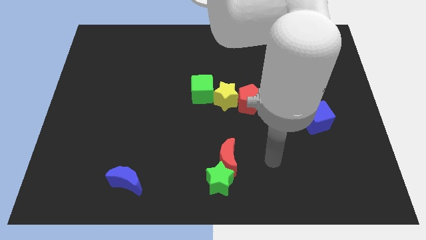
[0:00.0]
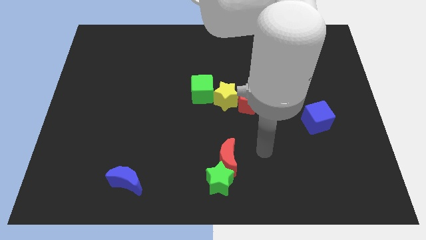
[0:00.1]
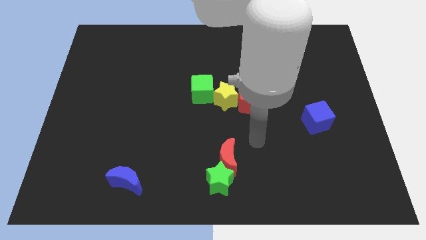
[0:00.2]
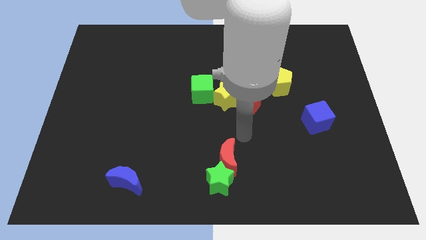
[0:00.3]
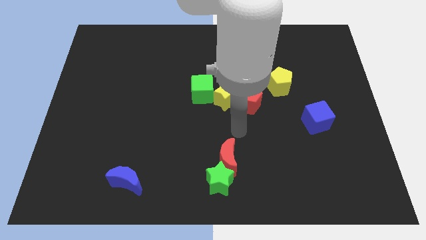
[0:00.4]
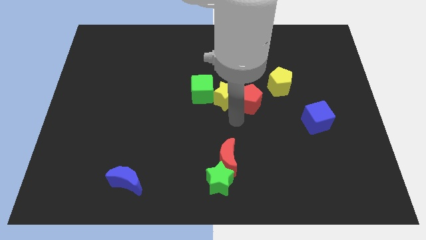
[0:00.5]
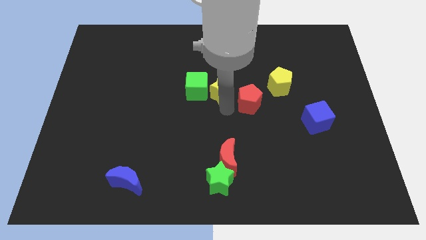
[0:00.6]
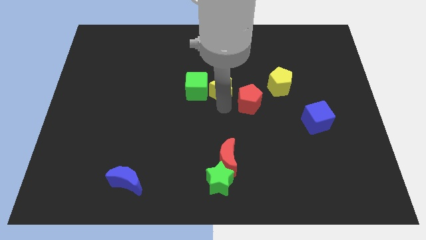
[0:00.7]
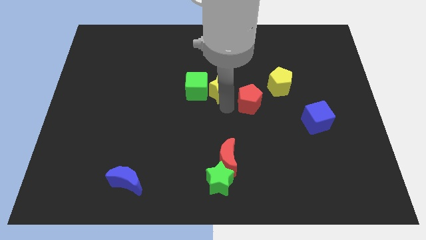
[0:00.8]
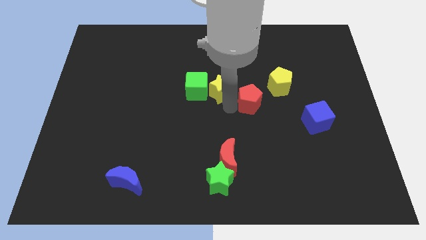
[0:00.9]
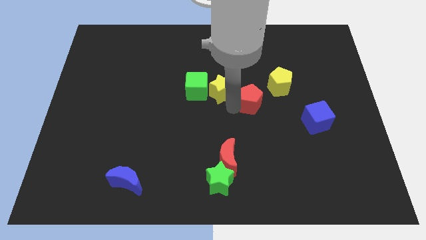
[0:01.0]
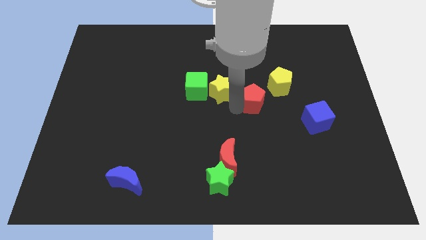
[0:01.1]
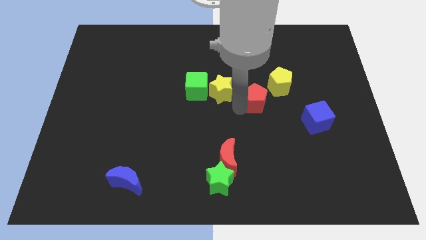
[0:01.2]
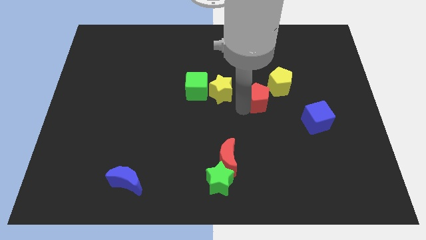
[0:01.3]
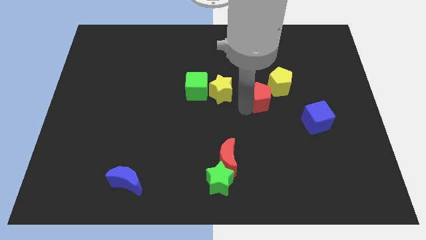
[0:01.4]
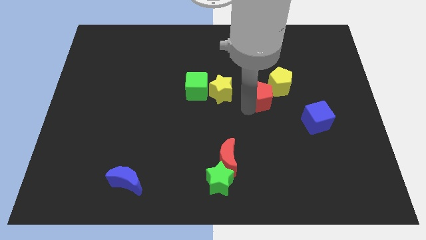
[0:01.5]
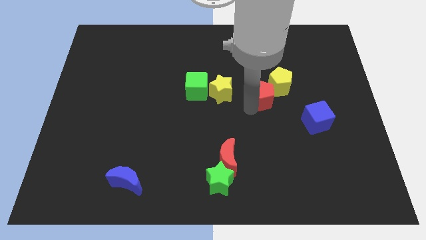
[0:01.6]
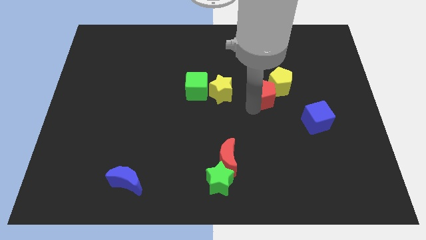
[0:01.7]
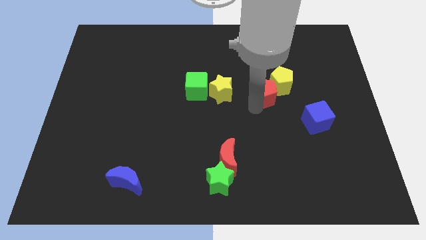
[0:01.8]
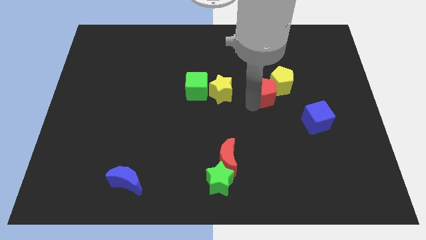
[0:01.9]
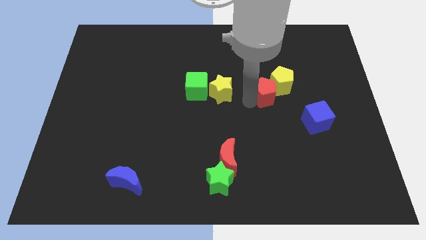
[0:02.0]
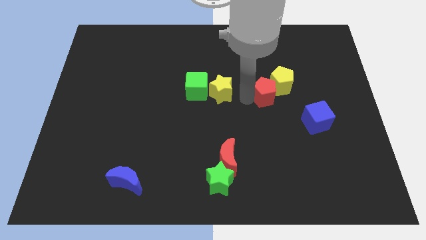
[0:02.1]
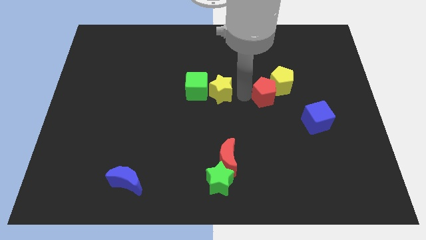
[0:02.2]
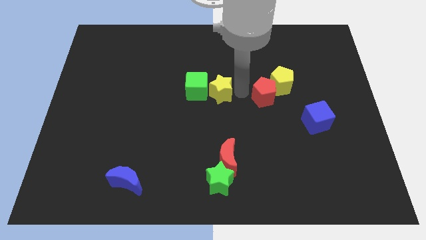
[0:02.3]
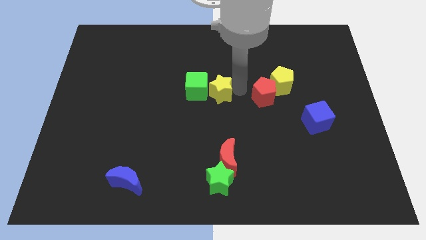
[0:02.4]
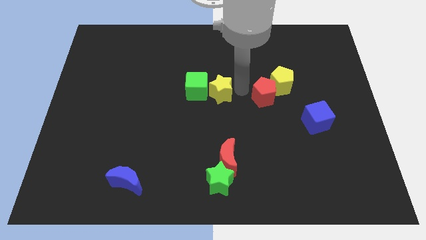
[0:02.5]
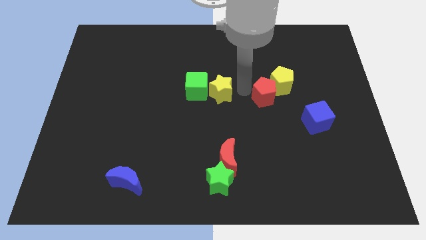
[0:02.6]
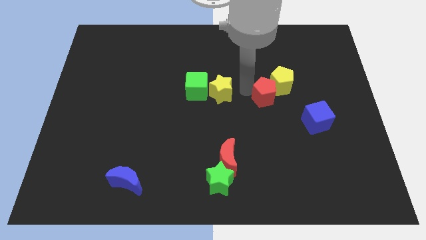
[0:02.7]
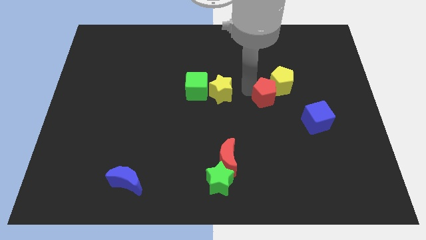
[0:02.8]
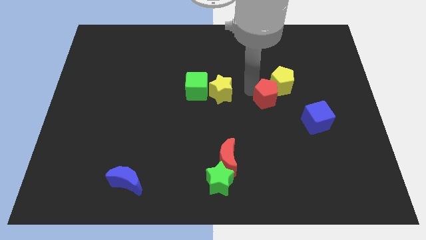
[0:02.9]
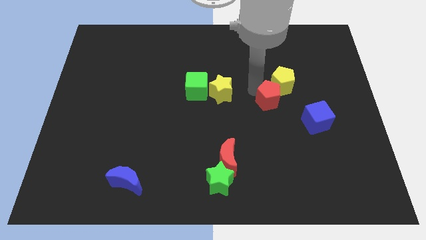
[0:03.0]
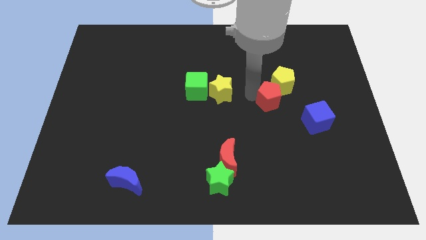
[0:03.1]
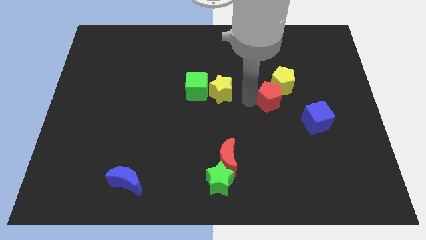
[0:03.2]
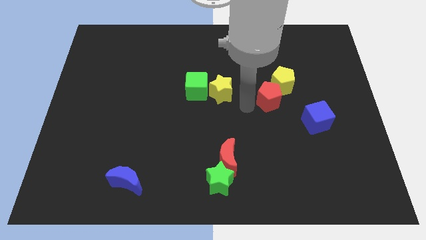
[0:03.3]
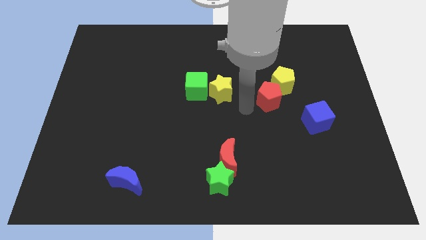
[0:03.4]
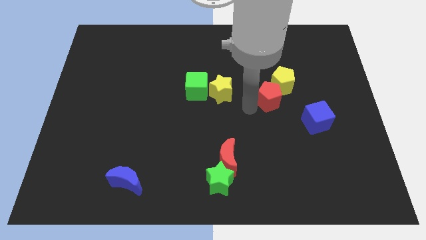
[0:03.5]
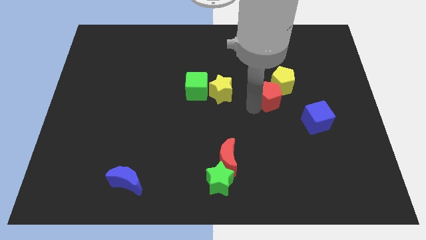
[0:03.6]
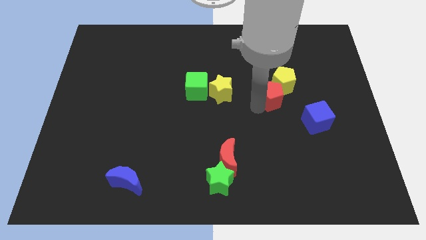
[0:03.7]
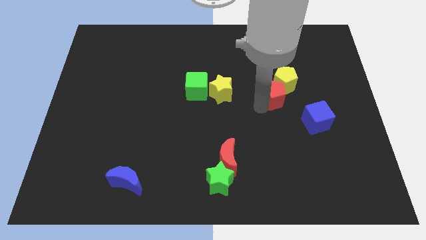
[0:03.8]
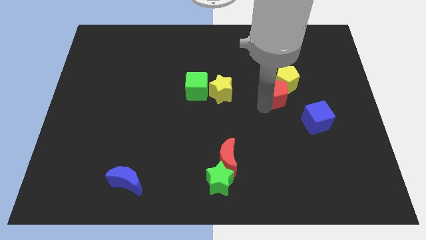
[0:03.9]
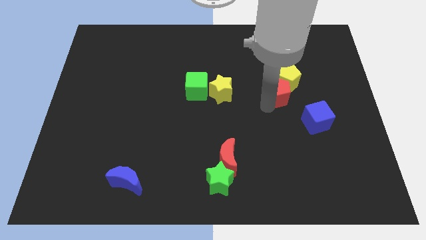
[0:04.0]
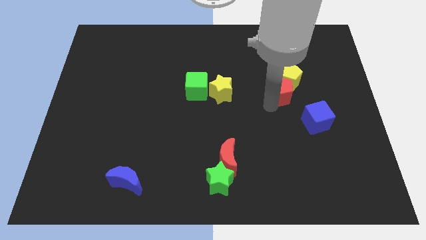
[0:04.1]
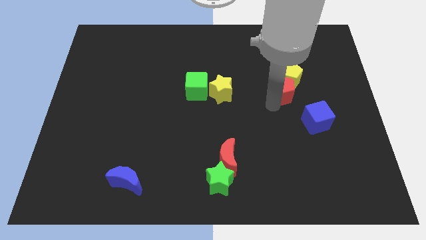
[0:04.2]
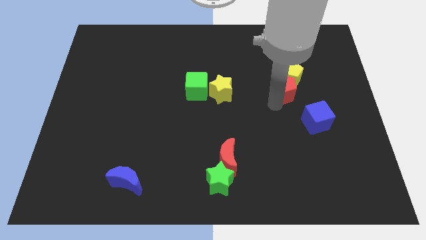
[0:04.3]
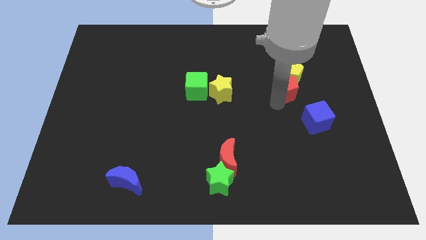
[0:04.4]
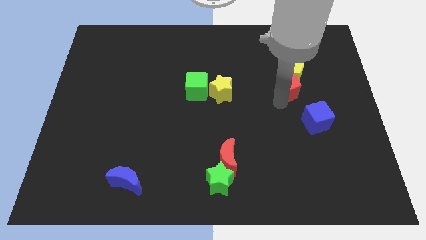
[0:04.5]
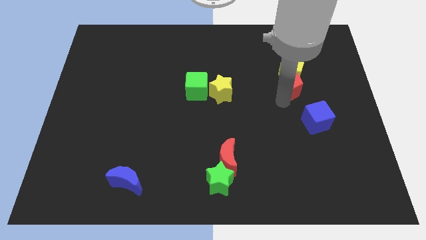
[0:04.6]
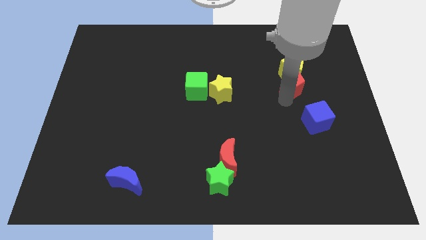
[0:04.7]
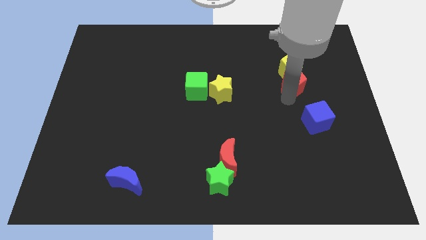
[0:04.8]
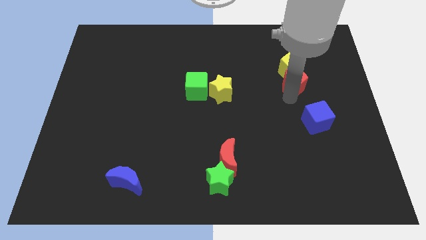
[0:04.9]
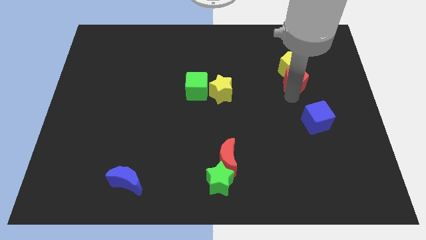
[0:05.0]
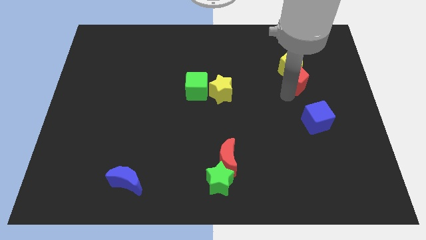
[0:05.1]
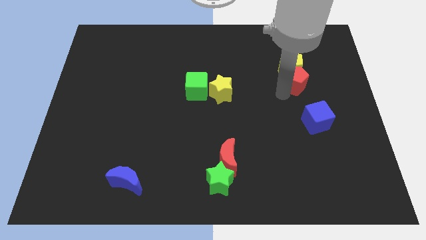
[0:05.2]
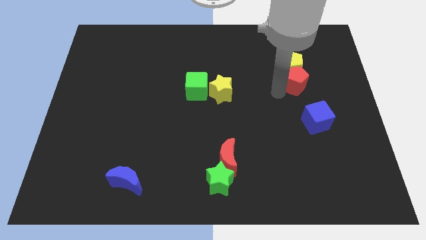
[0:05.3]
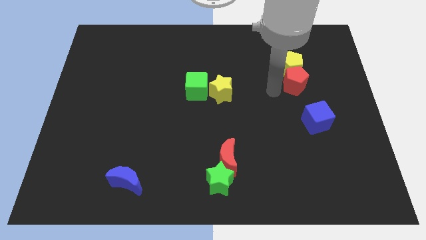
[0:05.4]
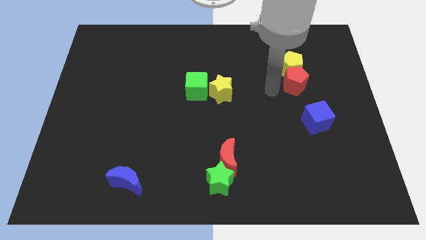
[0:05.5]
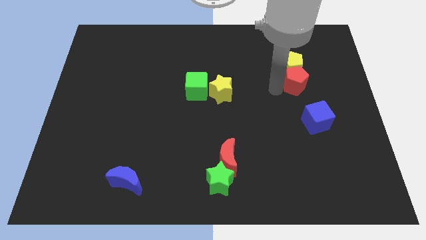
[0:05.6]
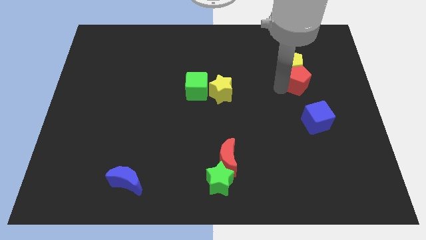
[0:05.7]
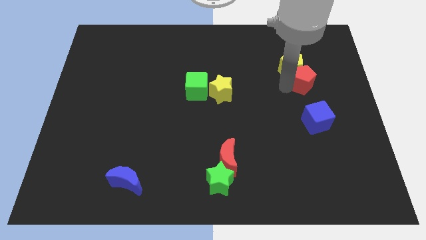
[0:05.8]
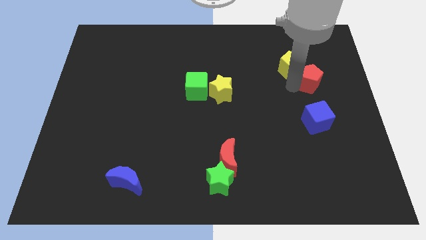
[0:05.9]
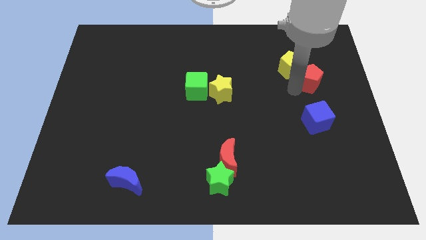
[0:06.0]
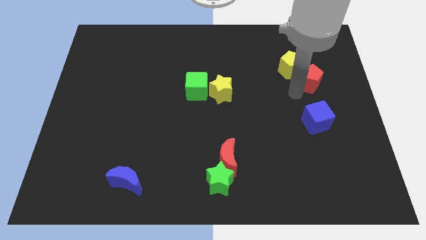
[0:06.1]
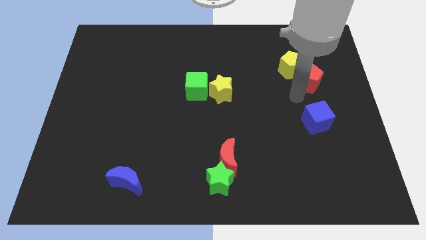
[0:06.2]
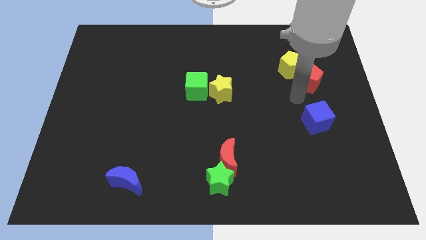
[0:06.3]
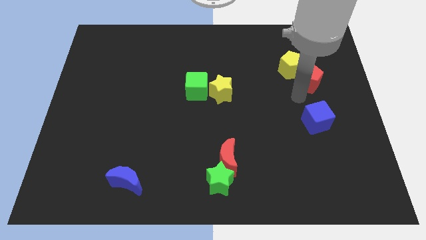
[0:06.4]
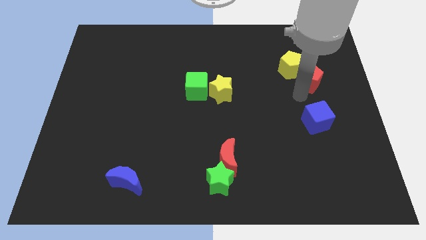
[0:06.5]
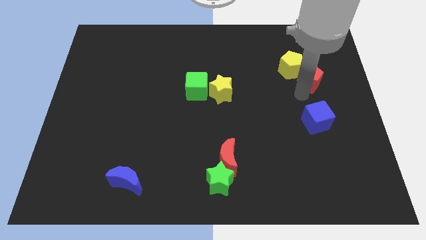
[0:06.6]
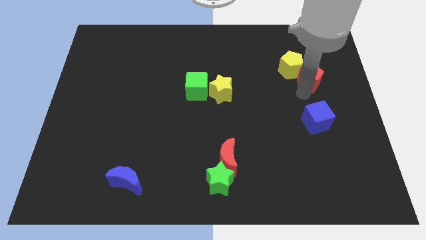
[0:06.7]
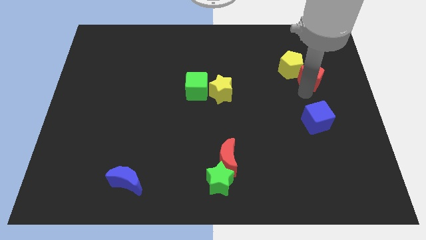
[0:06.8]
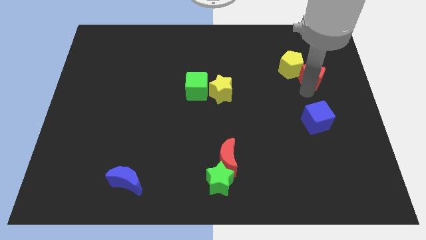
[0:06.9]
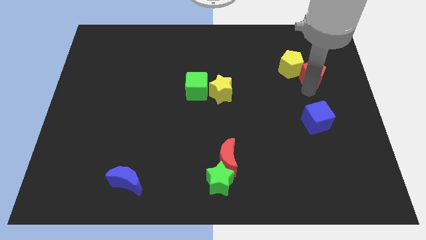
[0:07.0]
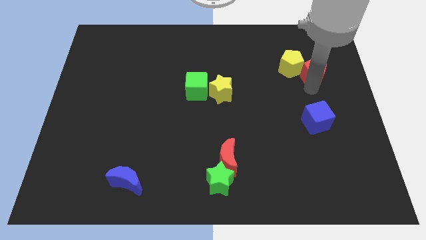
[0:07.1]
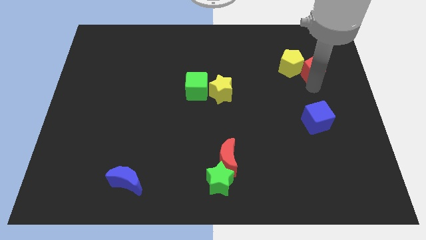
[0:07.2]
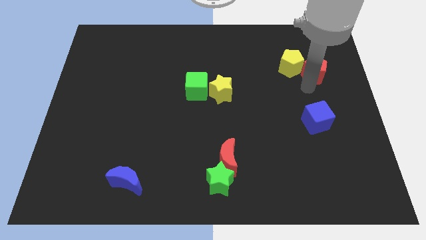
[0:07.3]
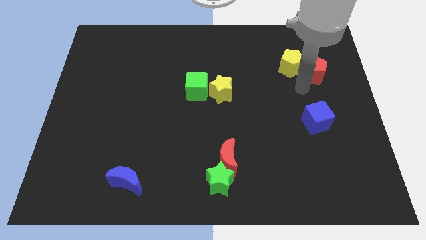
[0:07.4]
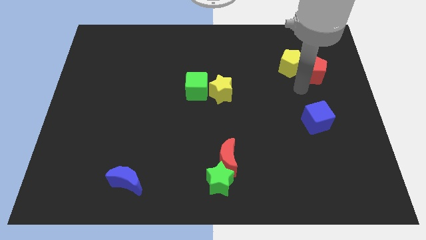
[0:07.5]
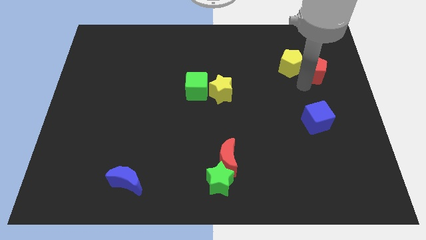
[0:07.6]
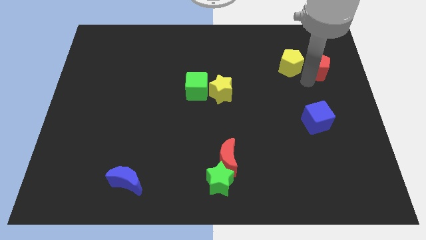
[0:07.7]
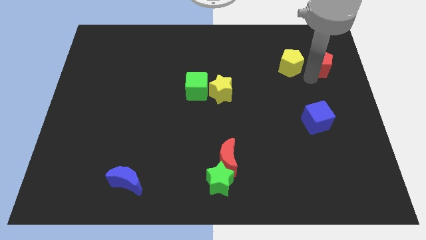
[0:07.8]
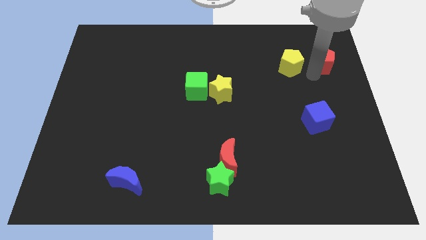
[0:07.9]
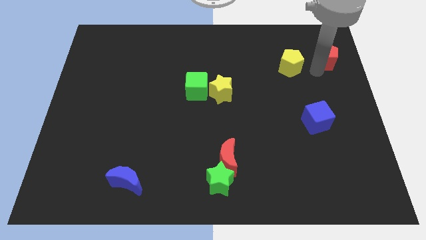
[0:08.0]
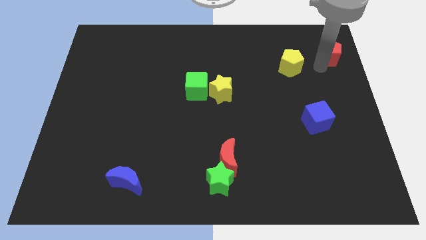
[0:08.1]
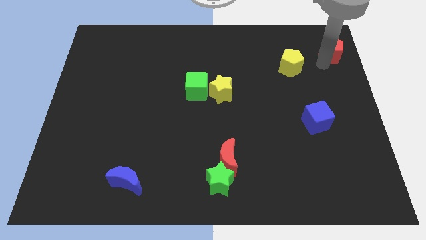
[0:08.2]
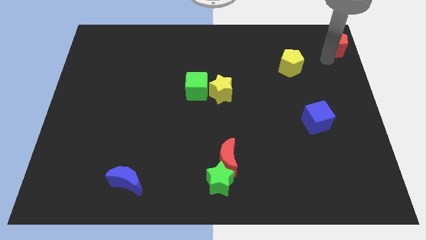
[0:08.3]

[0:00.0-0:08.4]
slide the red pentagon to the upper right corner
